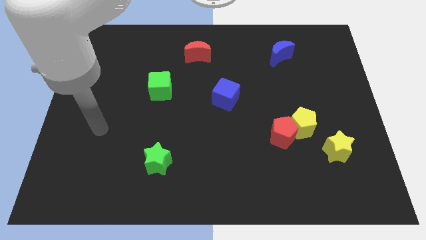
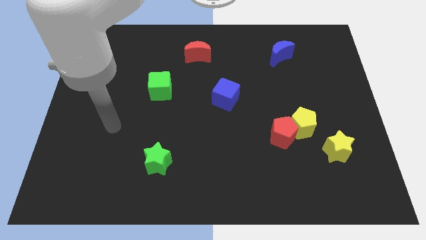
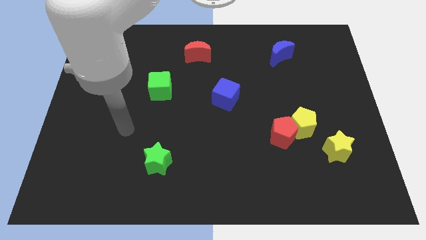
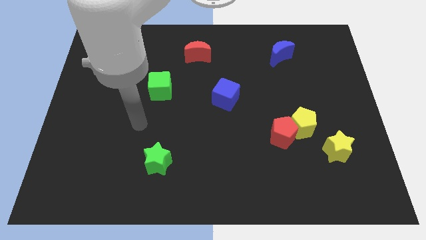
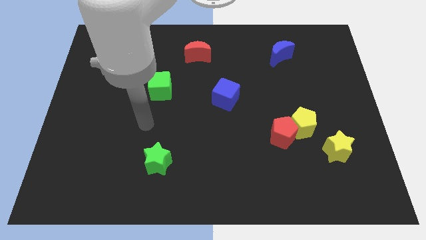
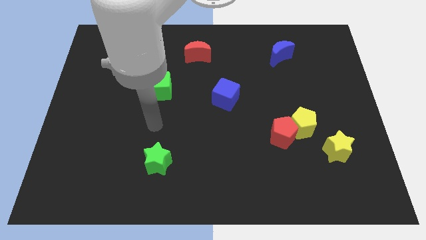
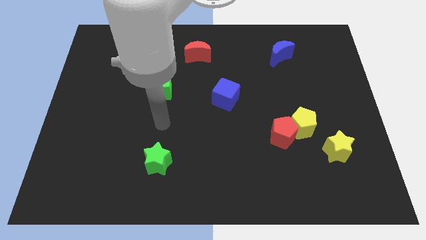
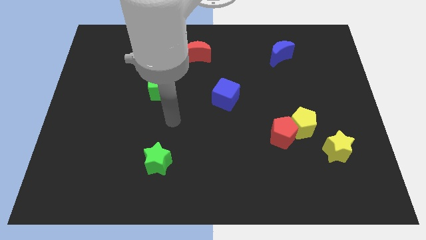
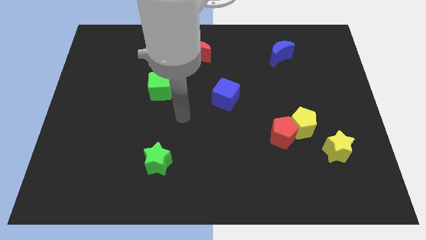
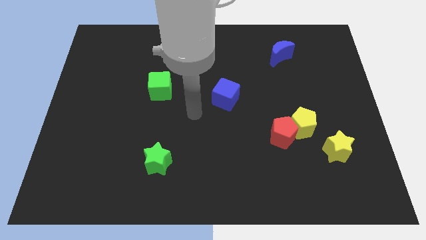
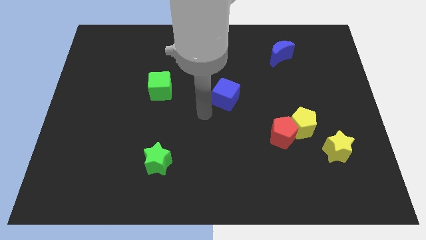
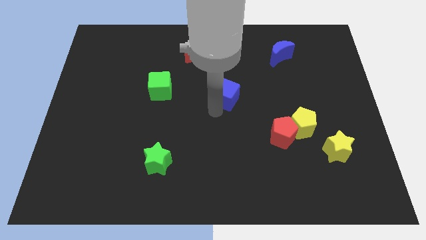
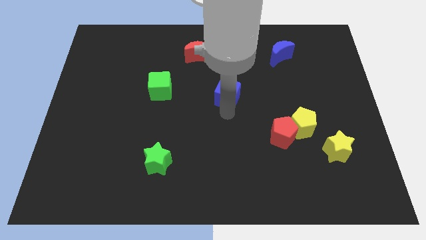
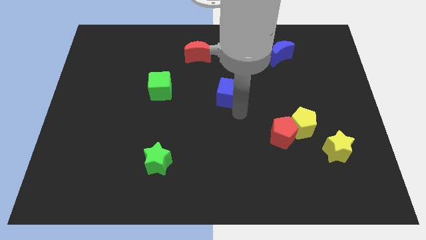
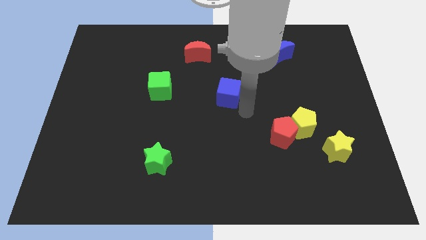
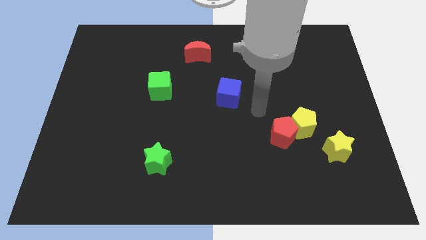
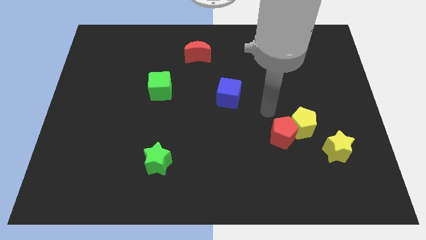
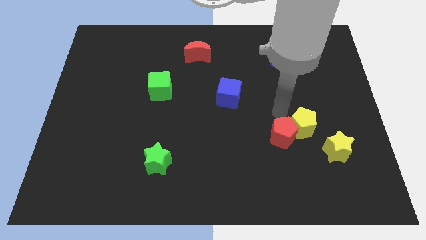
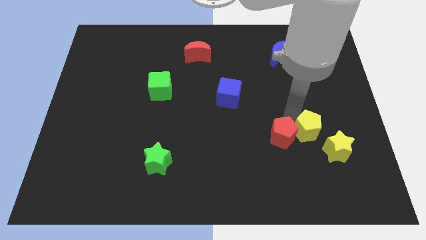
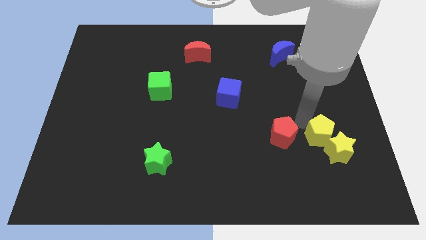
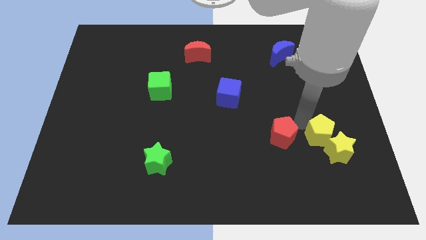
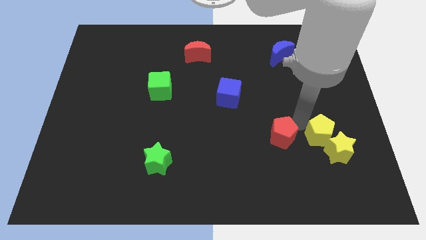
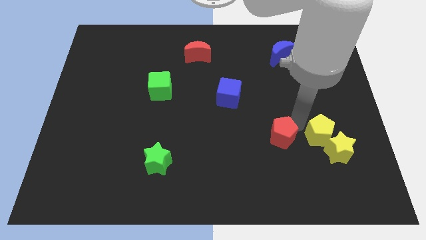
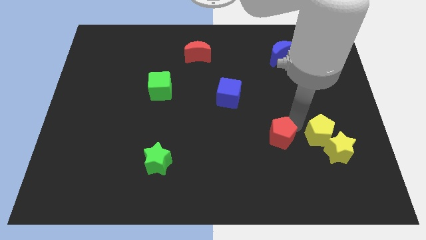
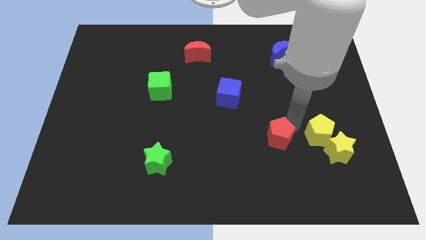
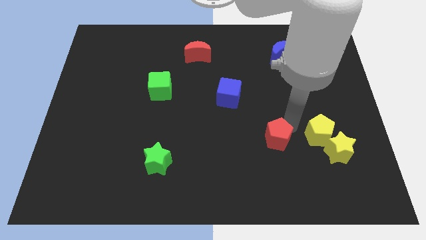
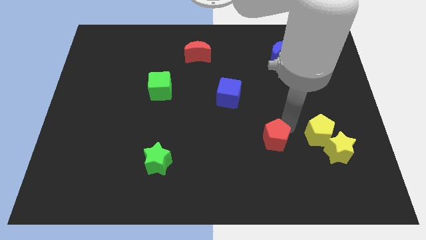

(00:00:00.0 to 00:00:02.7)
separate the red pentagon from the yellow pentagon

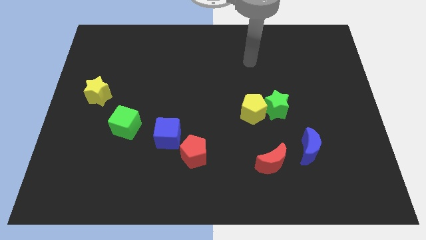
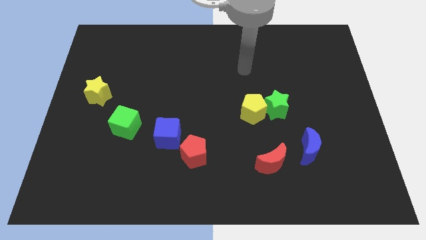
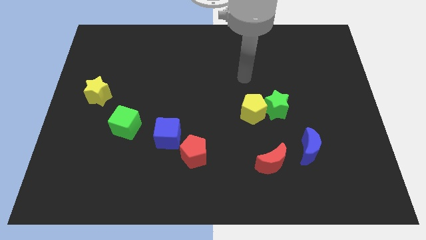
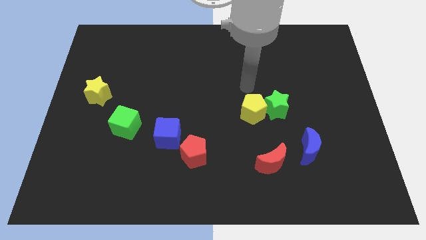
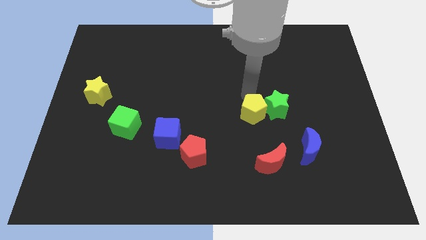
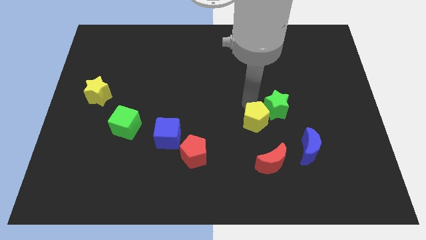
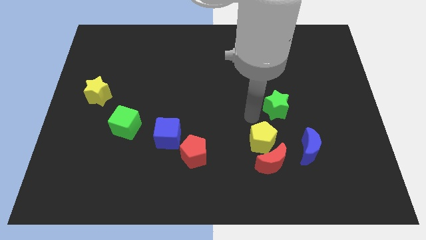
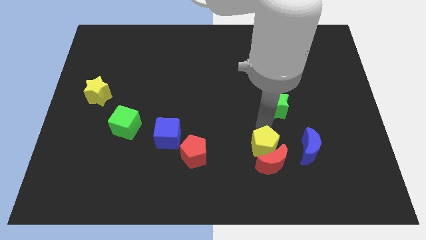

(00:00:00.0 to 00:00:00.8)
separate the green star from the yellow pentagon

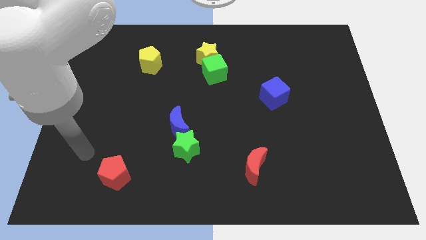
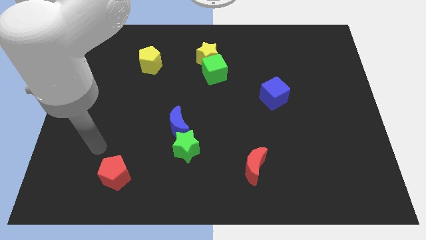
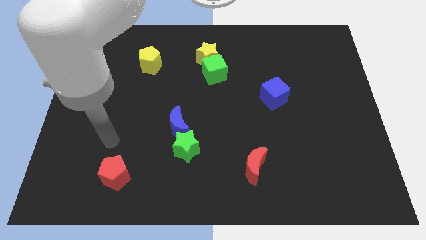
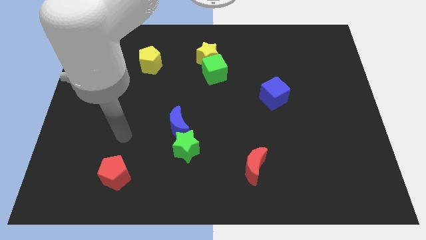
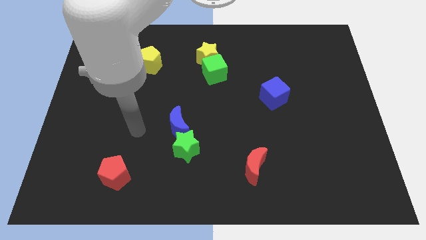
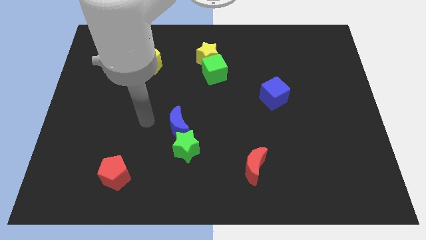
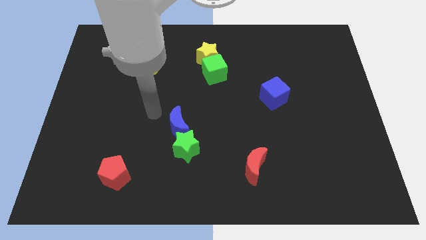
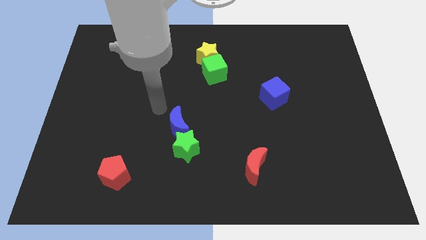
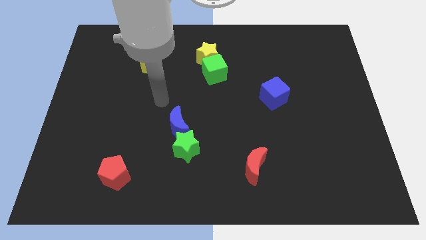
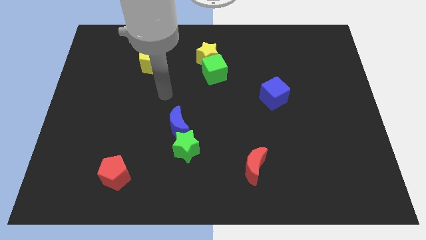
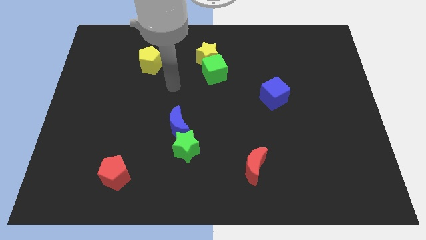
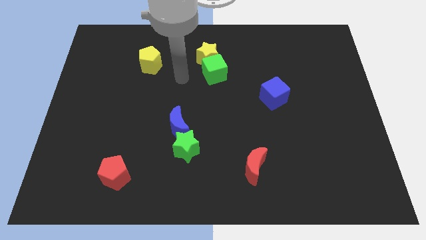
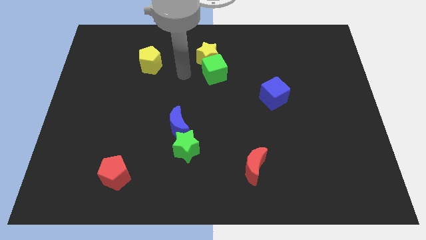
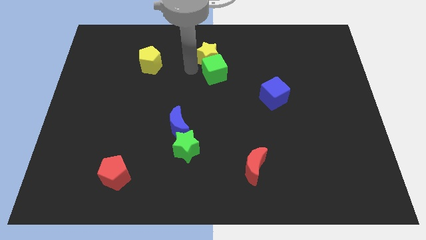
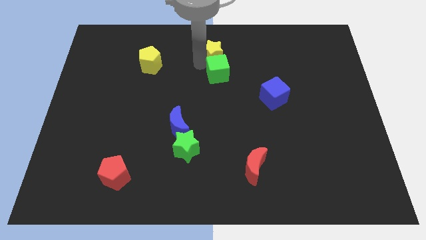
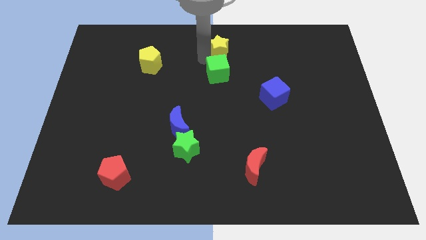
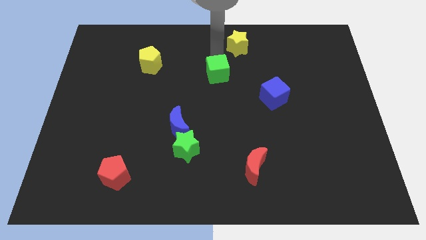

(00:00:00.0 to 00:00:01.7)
separate the green cube from the yellow star

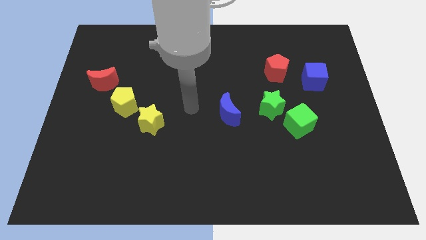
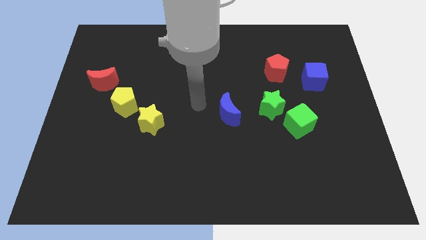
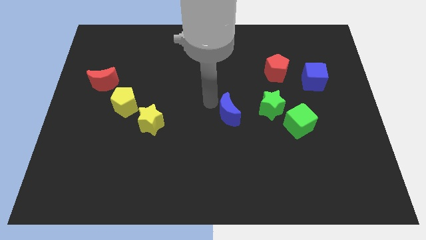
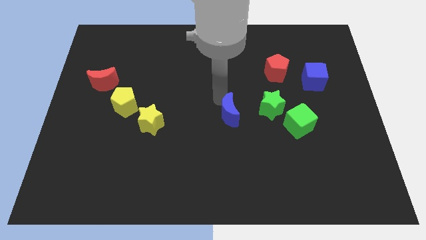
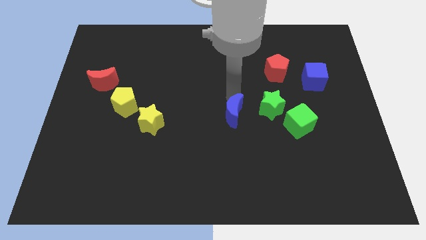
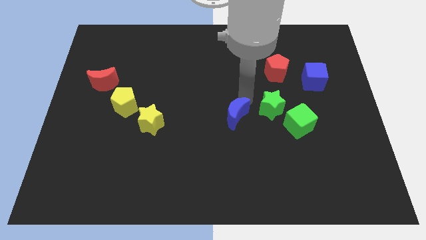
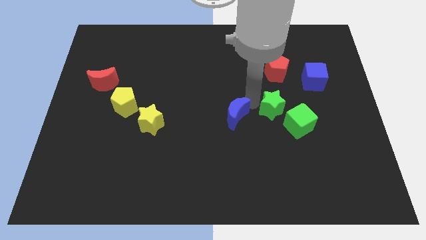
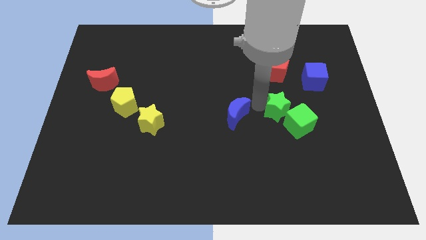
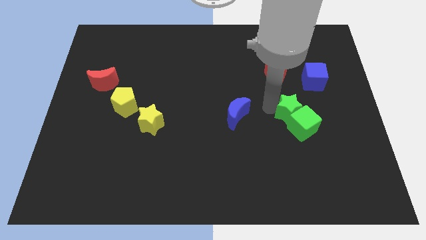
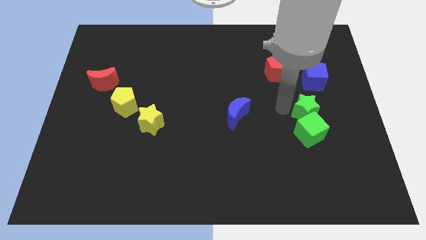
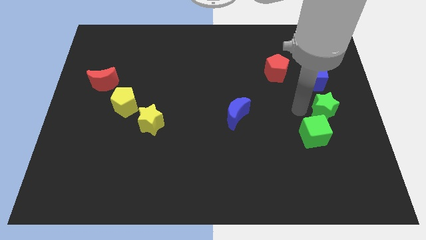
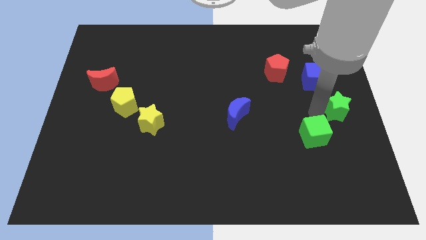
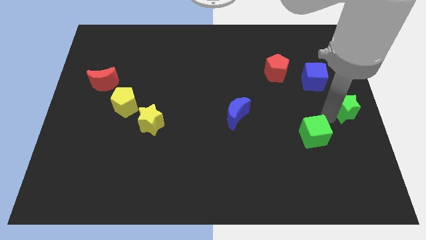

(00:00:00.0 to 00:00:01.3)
separate the green cube from the green star

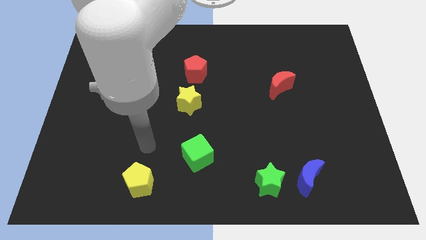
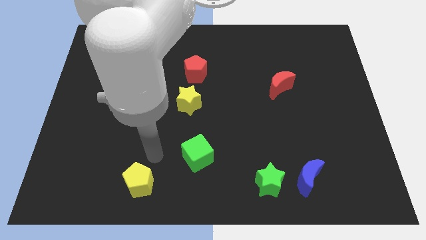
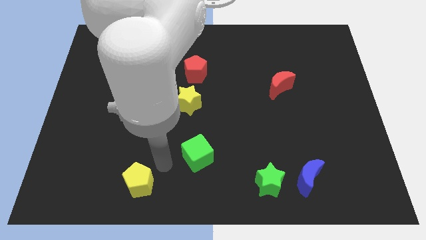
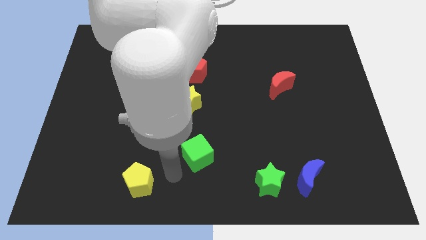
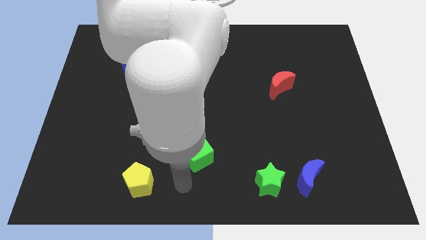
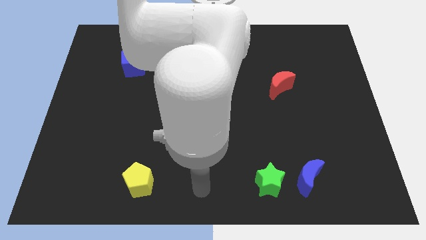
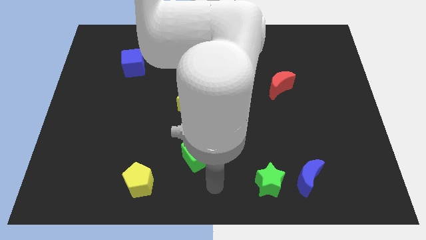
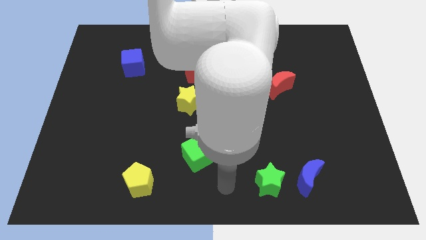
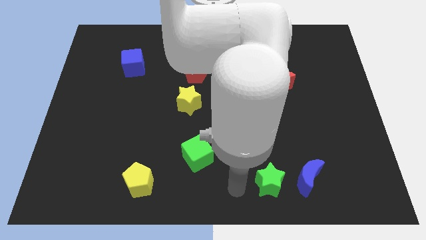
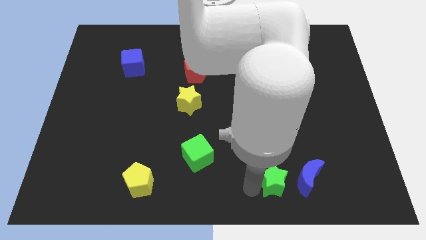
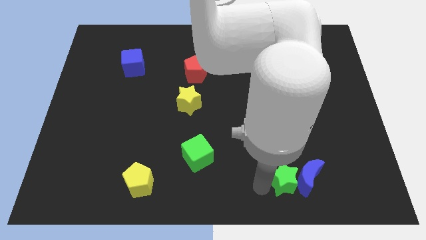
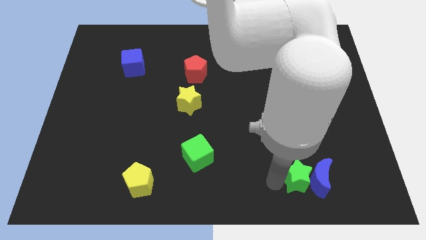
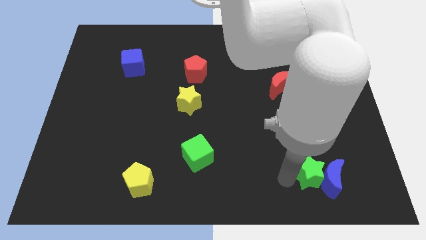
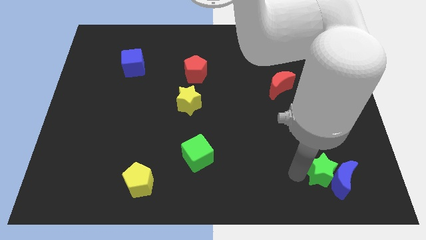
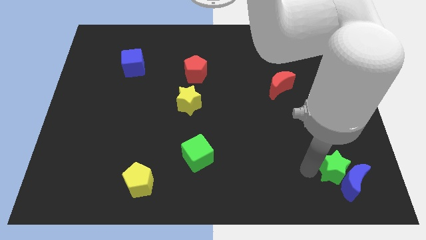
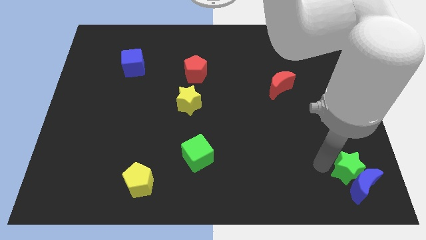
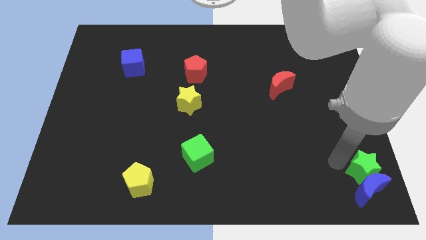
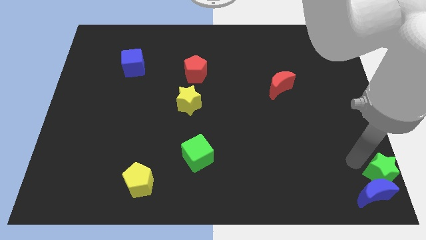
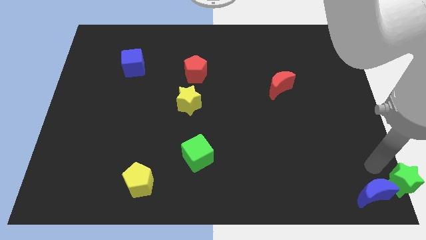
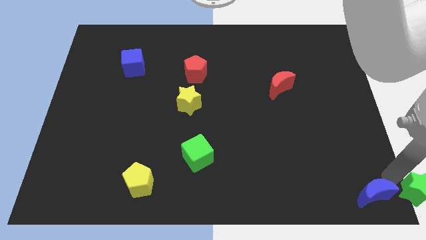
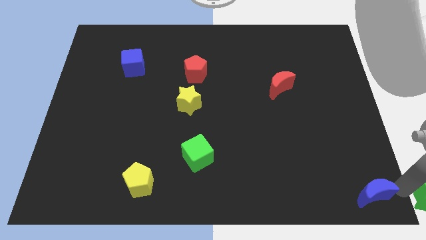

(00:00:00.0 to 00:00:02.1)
pull the blue moon apart from the green star

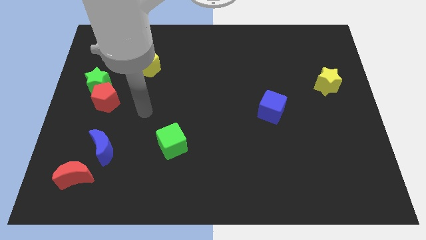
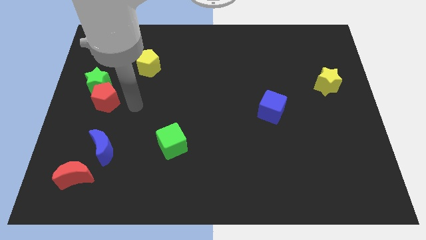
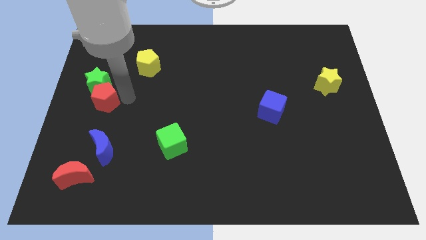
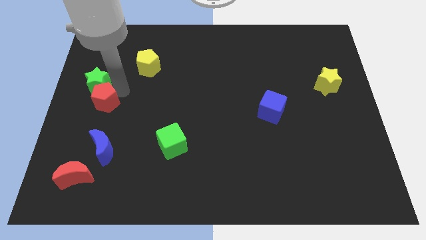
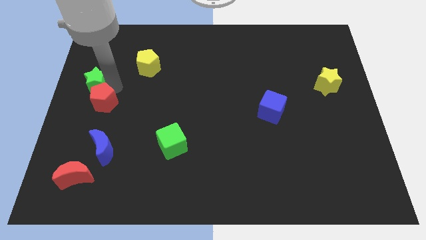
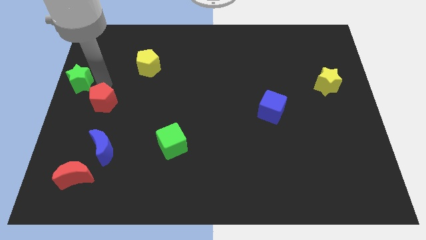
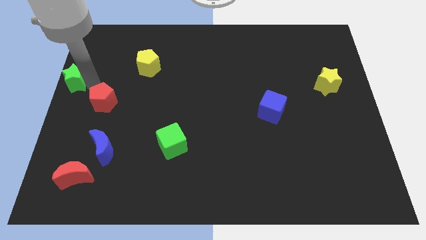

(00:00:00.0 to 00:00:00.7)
move the red pentagon away from the green star
